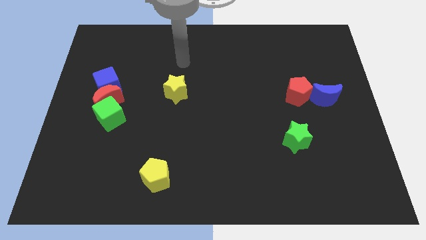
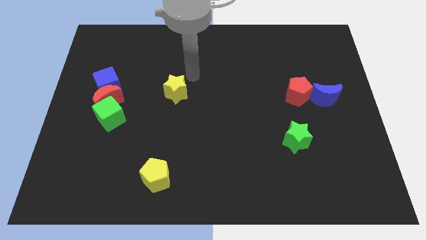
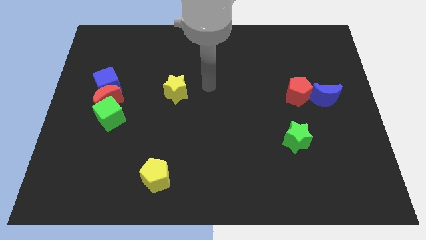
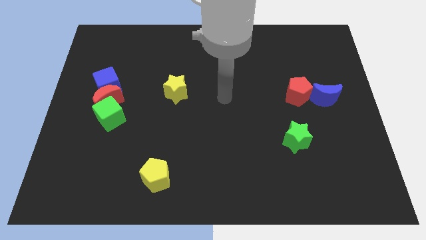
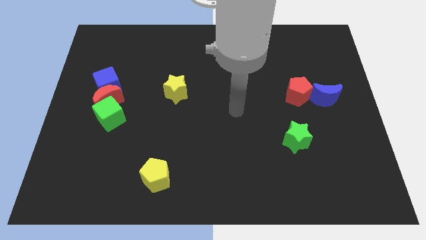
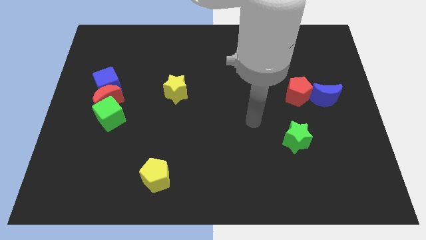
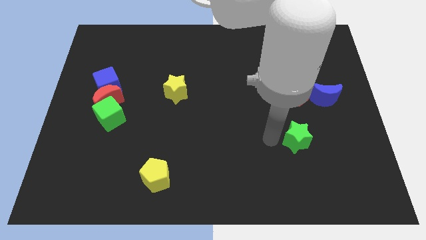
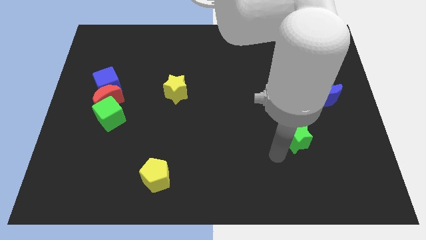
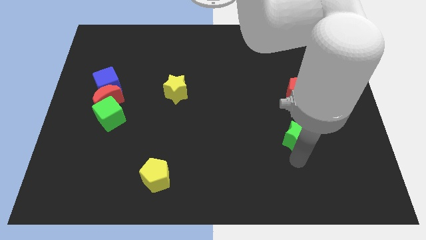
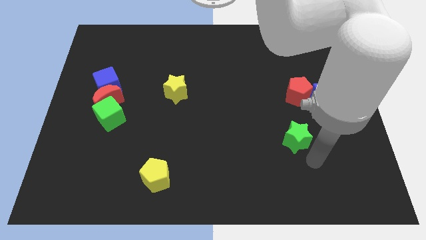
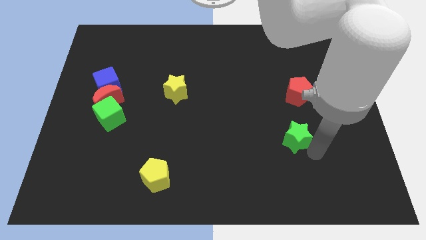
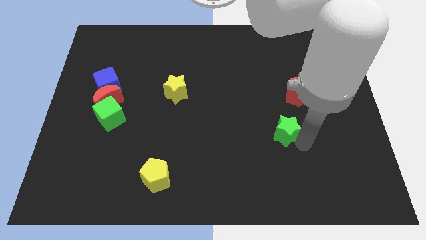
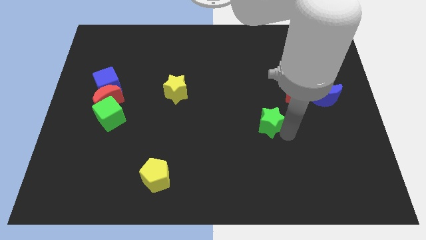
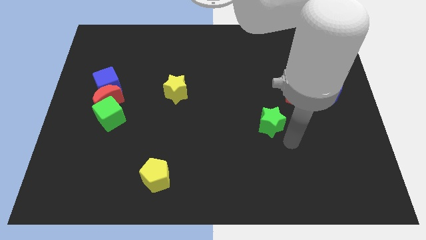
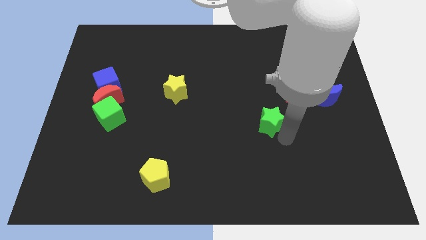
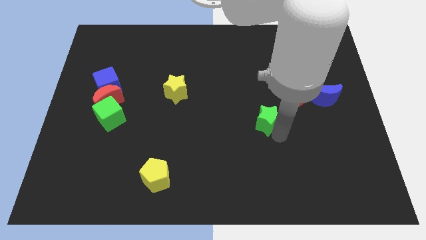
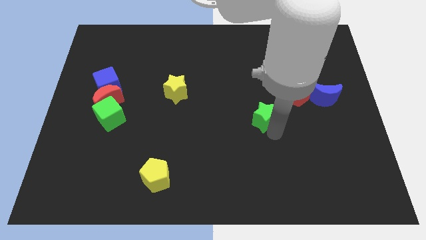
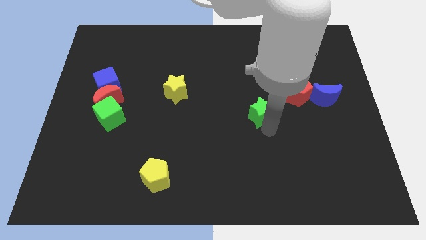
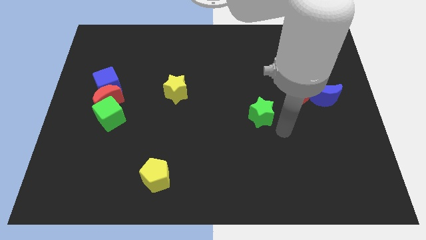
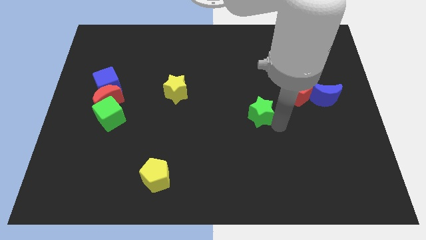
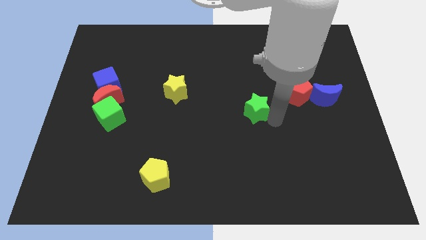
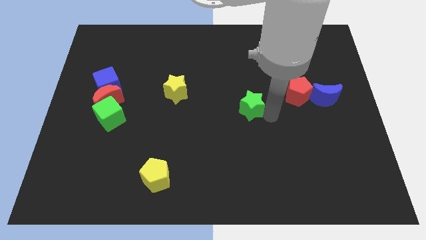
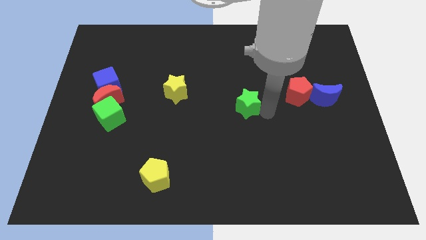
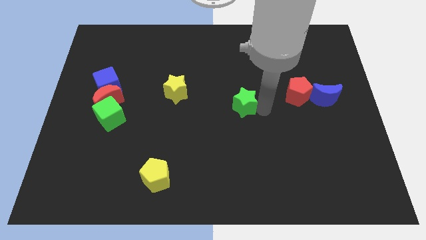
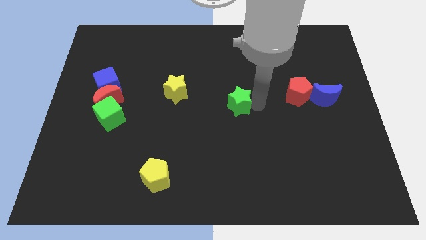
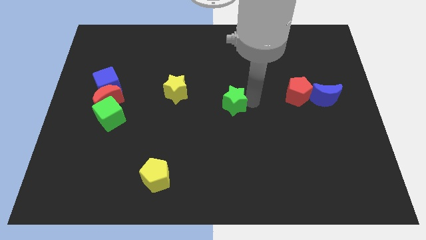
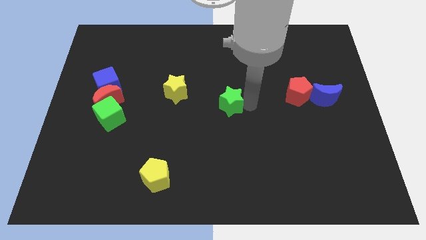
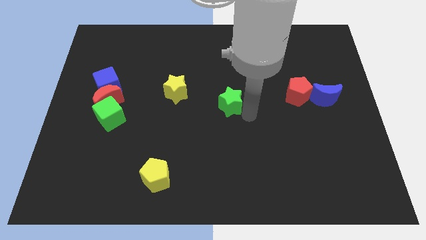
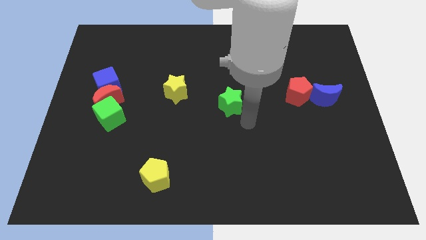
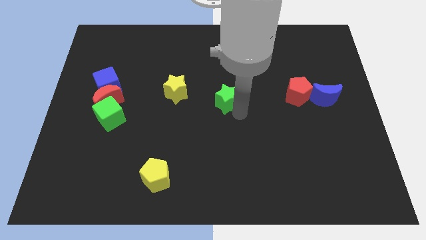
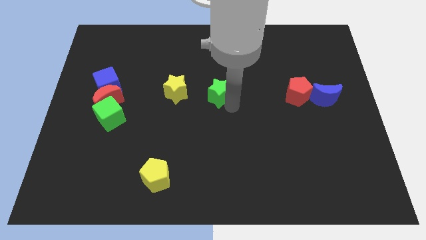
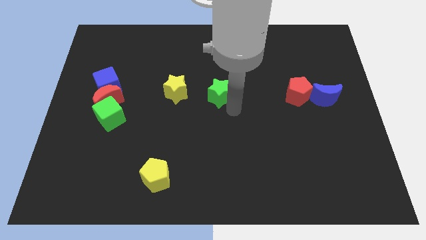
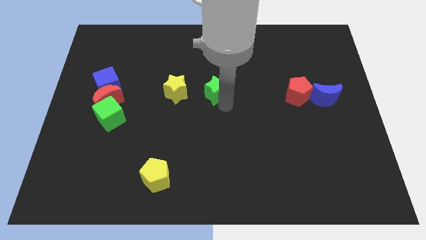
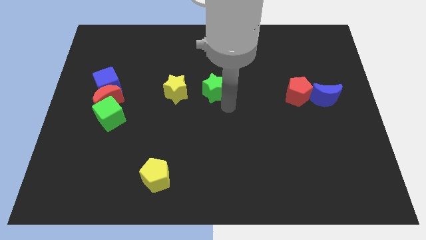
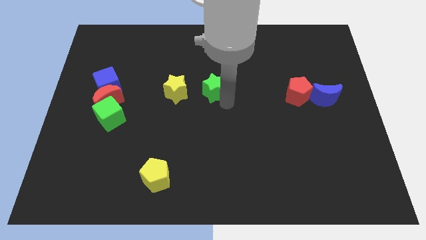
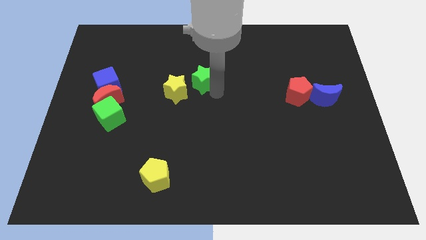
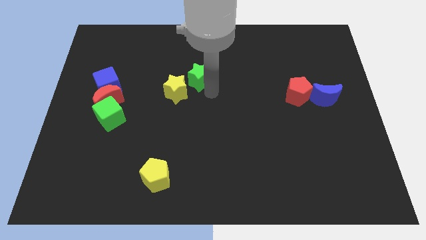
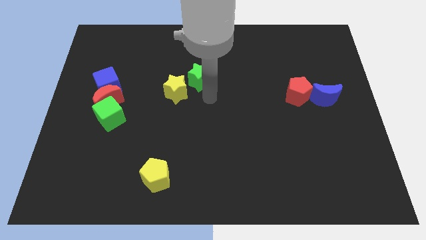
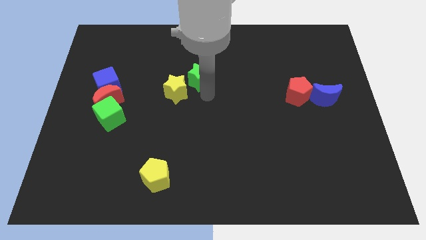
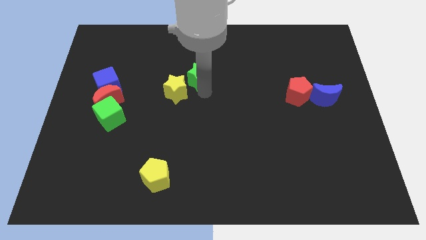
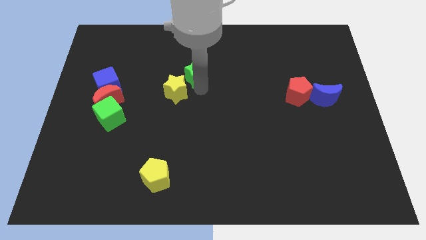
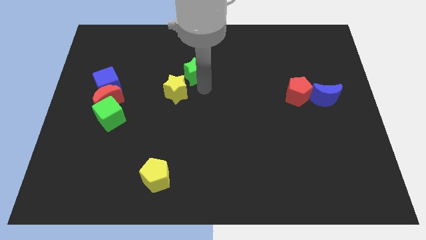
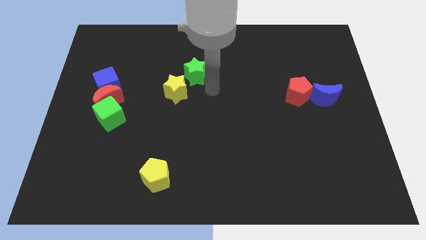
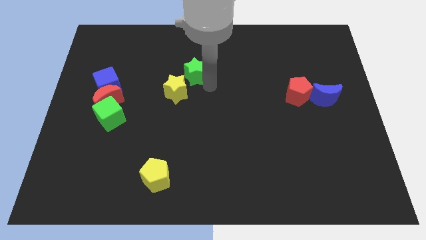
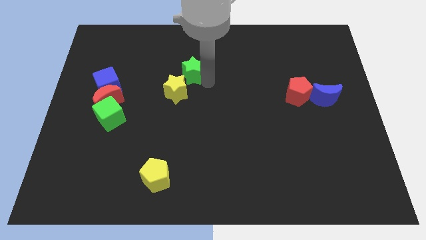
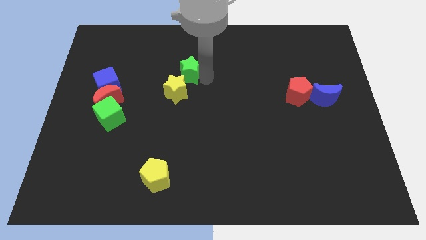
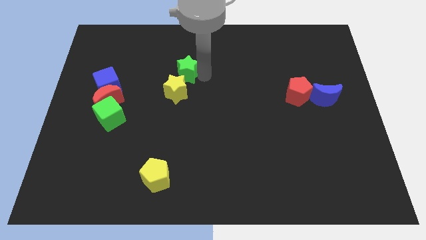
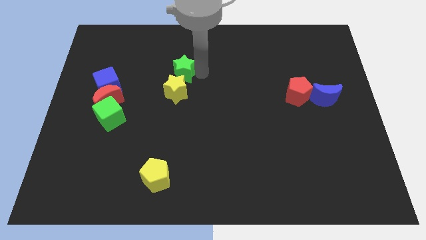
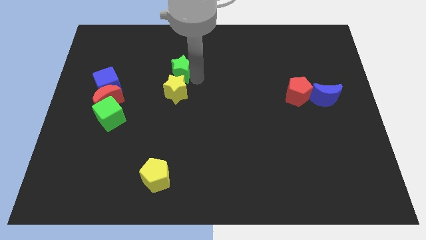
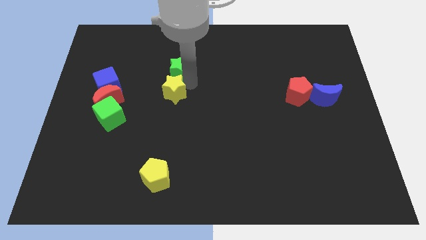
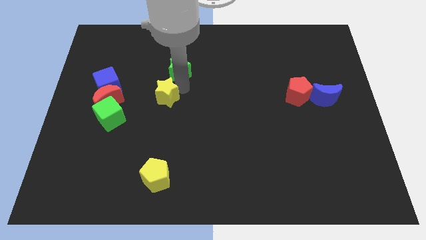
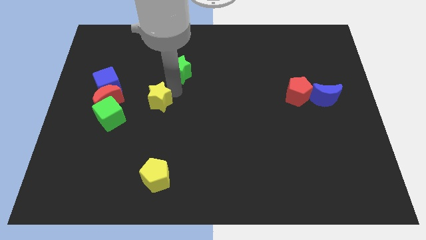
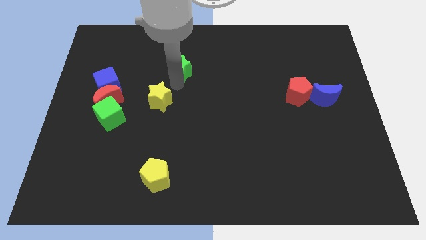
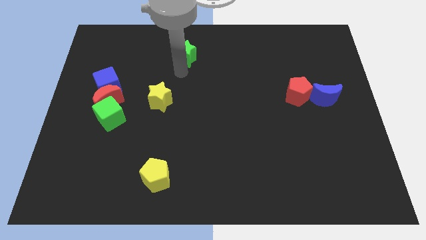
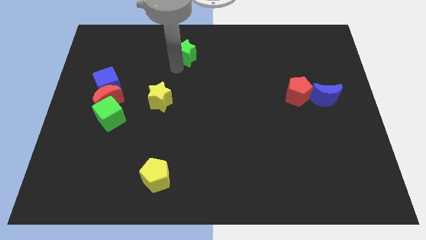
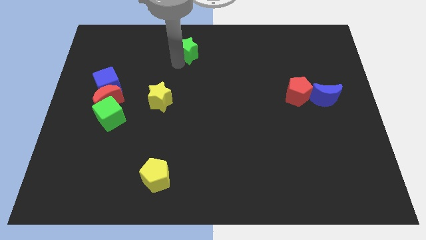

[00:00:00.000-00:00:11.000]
move the green star to the top

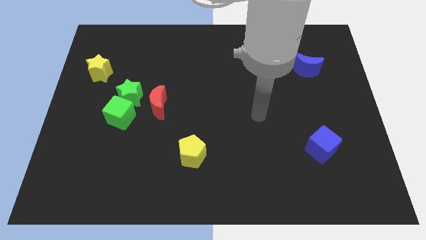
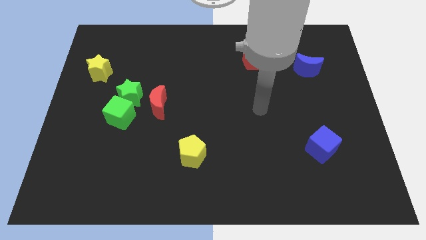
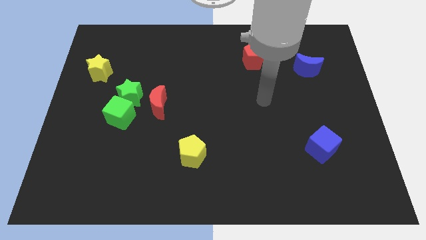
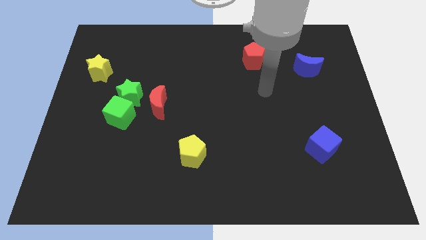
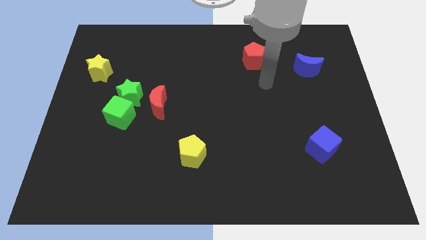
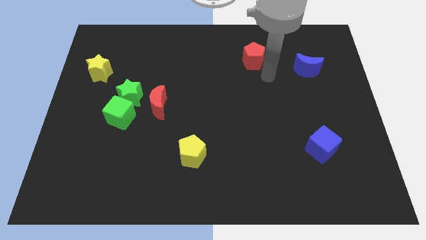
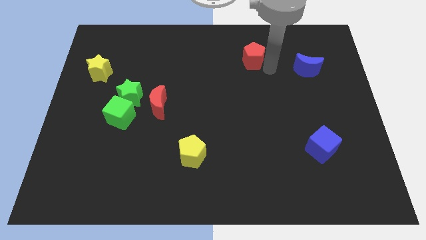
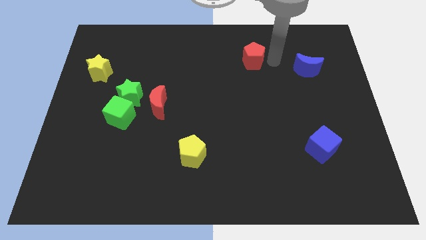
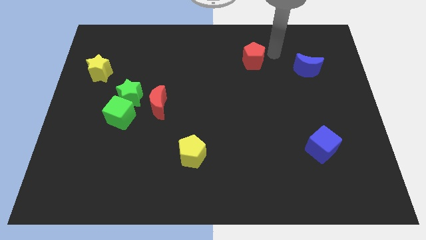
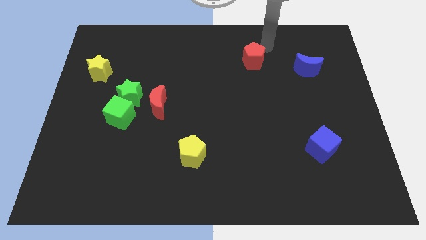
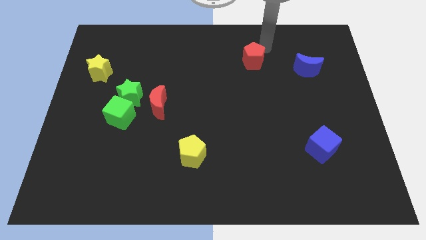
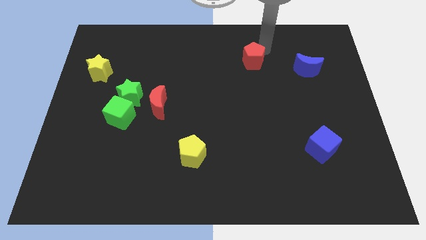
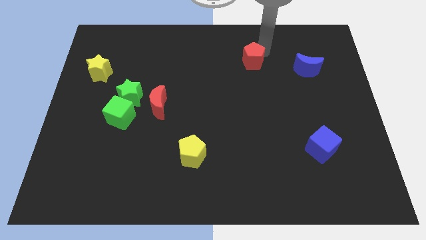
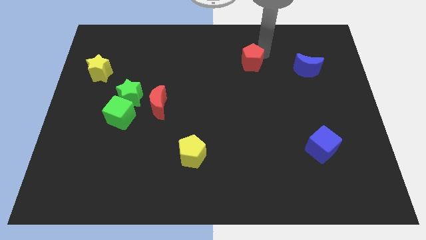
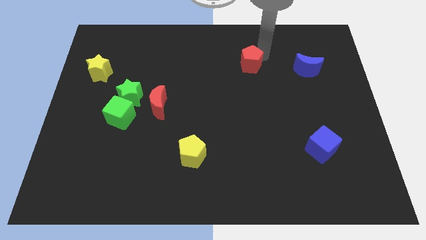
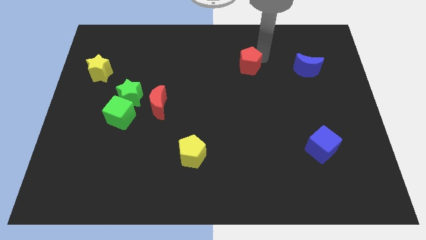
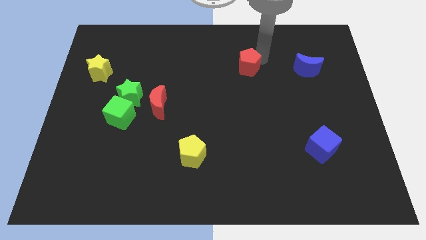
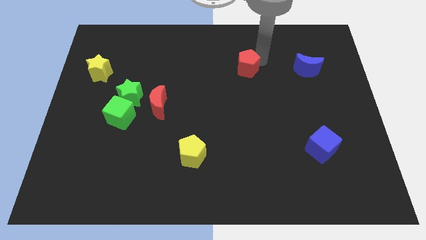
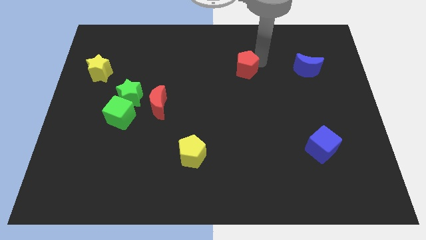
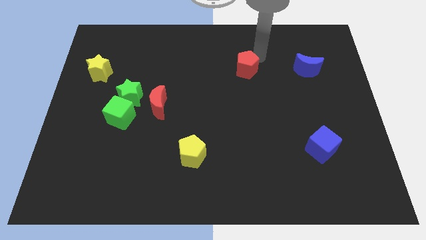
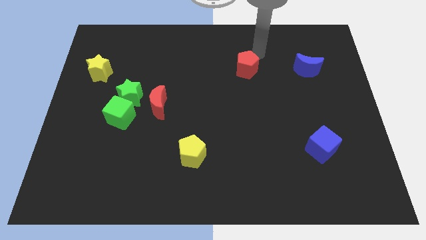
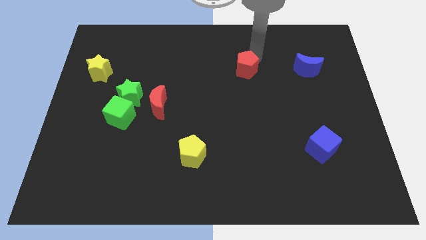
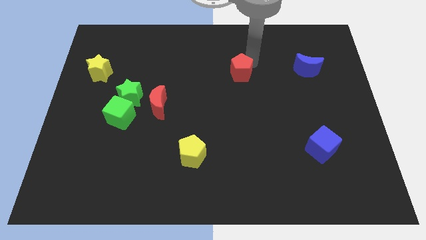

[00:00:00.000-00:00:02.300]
move the red pentagon to the center
